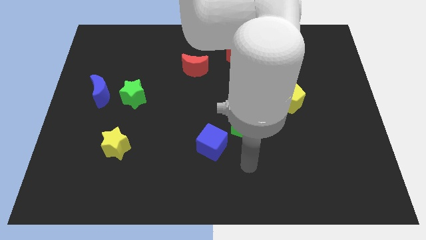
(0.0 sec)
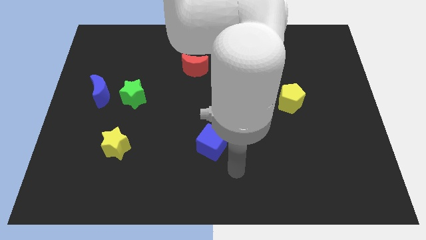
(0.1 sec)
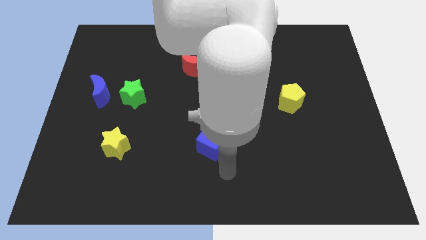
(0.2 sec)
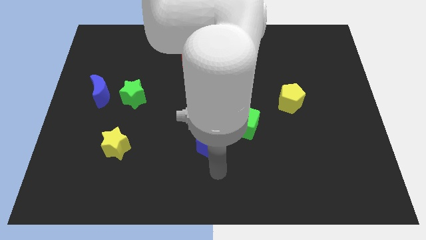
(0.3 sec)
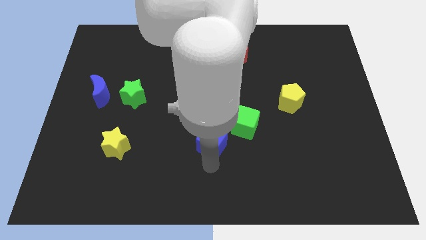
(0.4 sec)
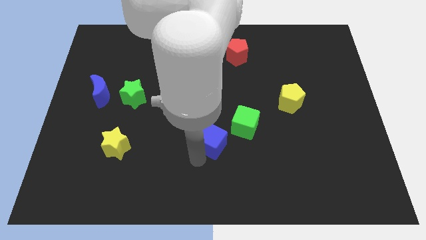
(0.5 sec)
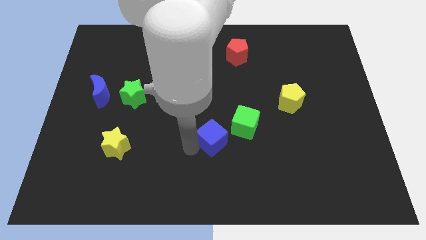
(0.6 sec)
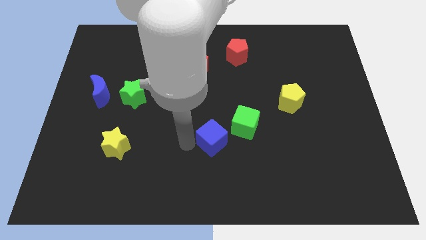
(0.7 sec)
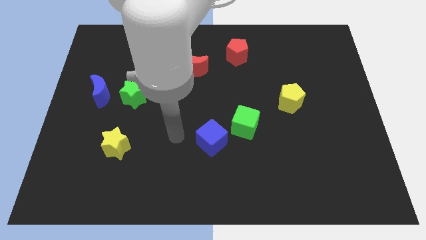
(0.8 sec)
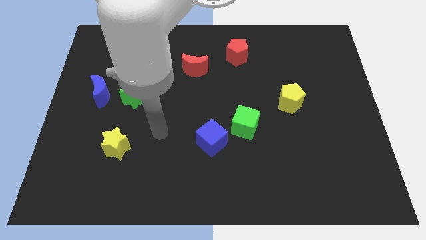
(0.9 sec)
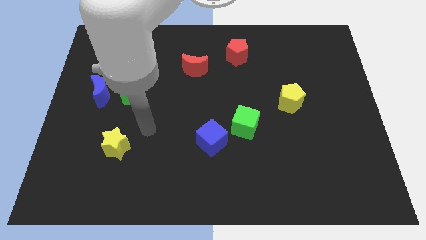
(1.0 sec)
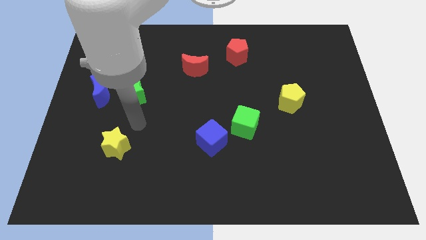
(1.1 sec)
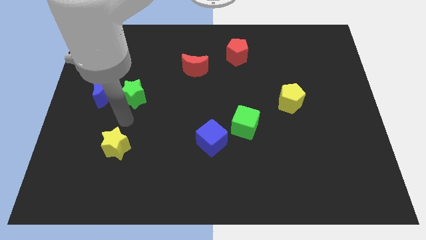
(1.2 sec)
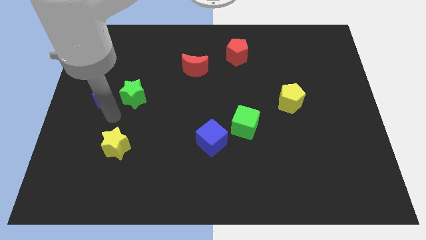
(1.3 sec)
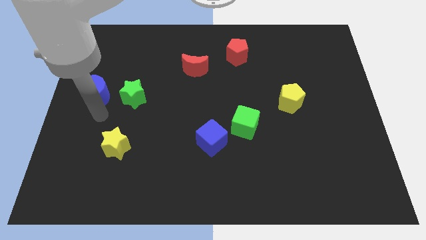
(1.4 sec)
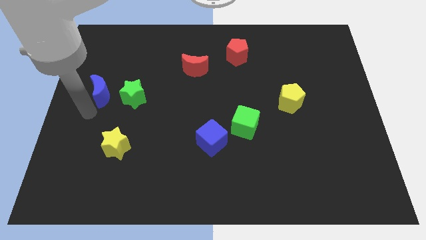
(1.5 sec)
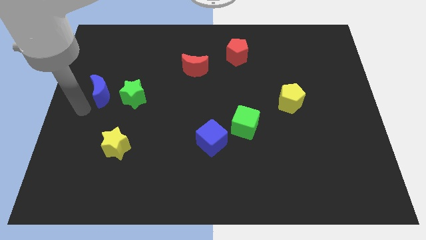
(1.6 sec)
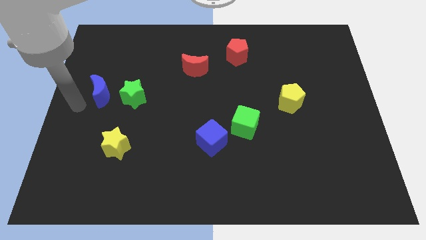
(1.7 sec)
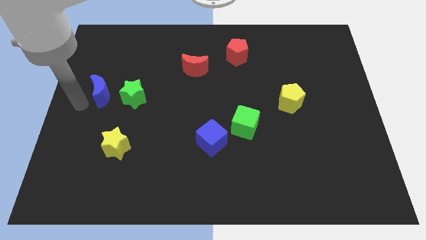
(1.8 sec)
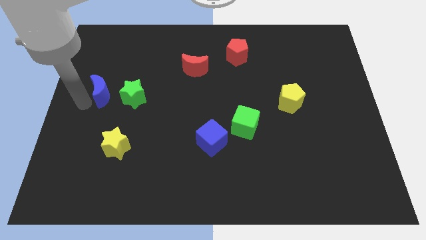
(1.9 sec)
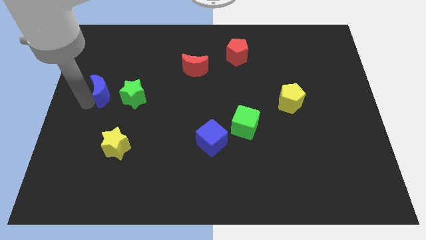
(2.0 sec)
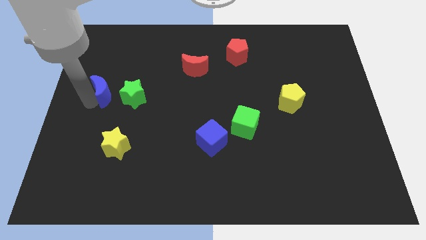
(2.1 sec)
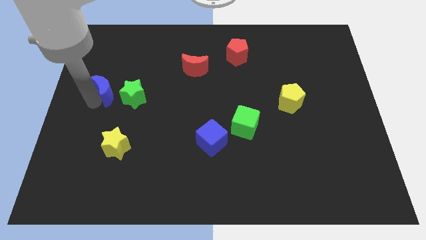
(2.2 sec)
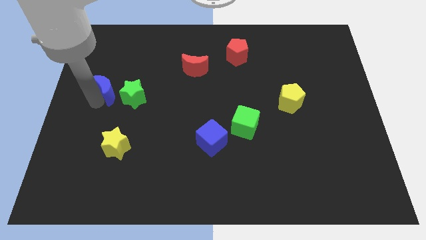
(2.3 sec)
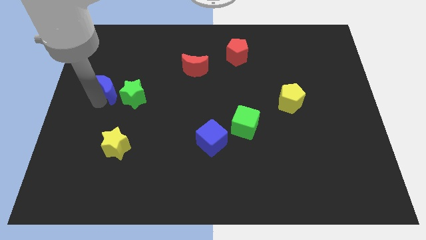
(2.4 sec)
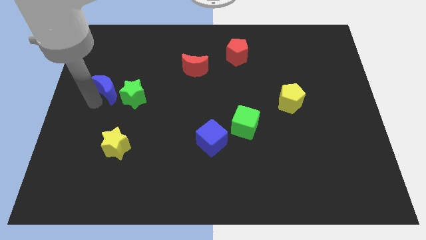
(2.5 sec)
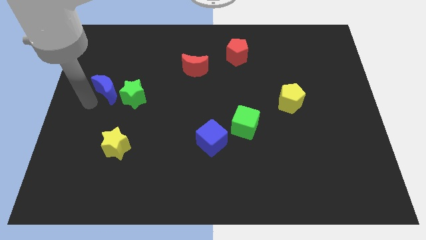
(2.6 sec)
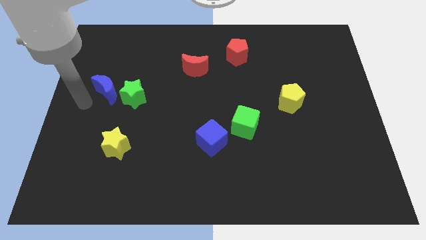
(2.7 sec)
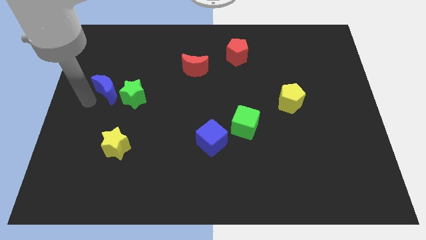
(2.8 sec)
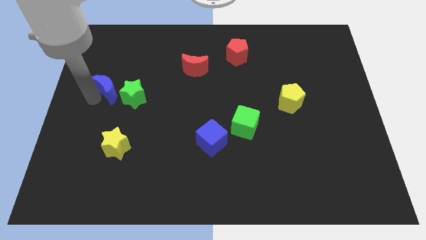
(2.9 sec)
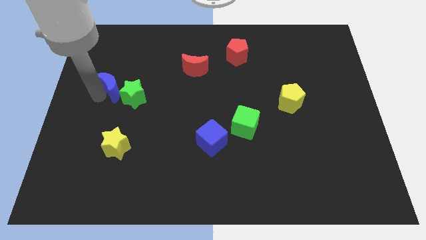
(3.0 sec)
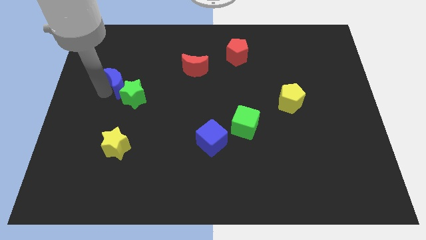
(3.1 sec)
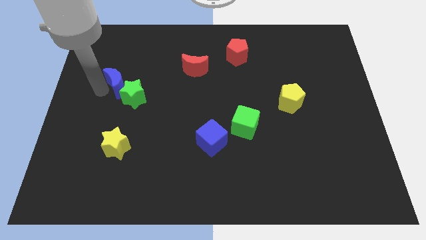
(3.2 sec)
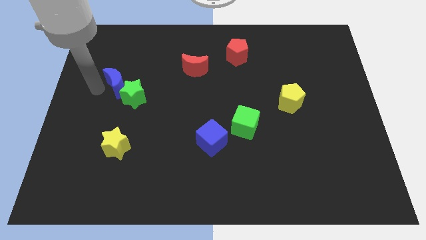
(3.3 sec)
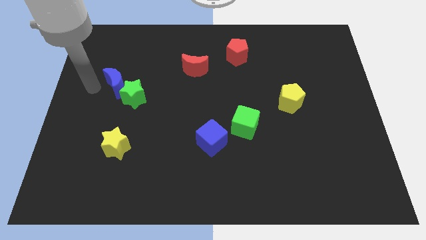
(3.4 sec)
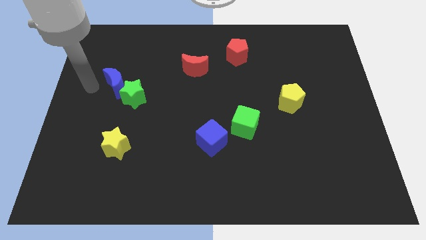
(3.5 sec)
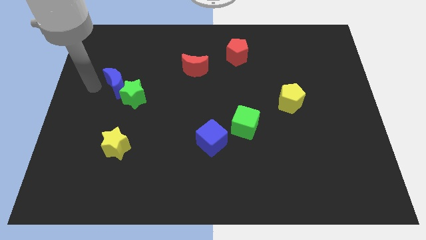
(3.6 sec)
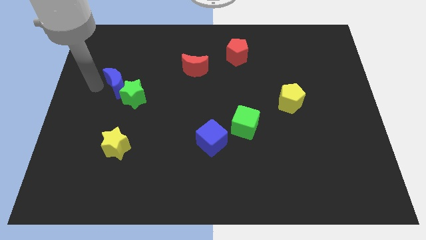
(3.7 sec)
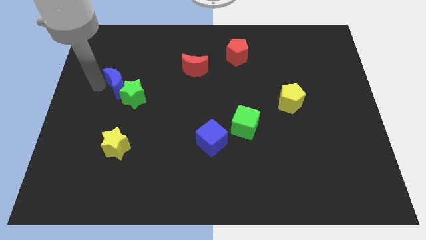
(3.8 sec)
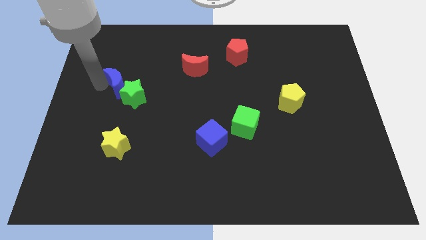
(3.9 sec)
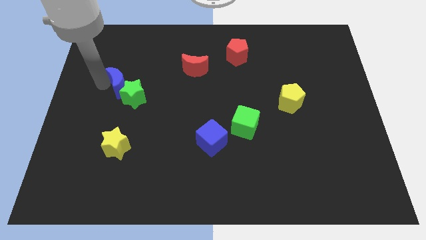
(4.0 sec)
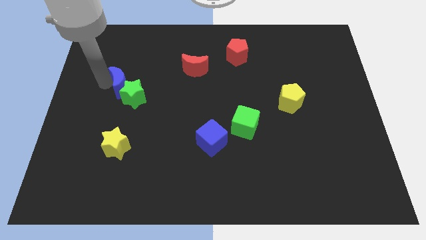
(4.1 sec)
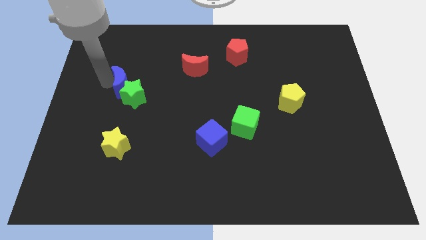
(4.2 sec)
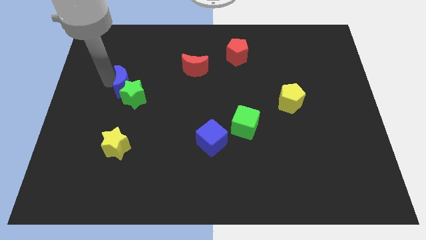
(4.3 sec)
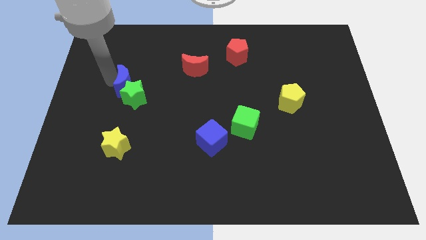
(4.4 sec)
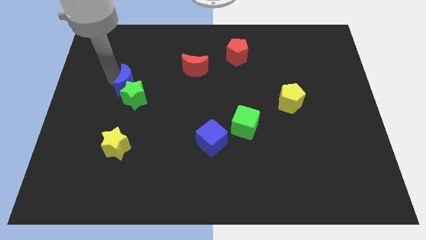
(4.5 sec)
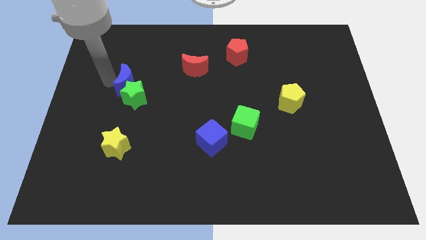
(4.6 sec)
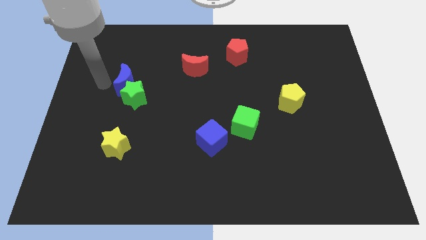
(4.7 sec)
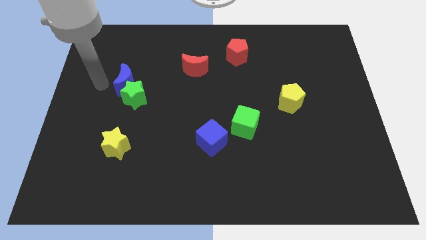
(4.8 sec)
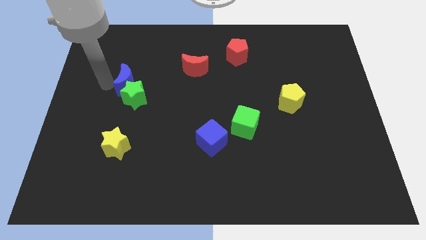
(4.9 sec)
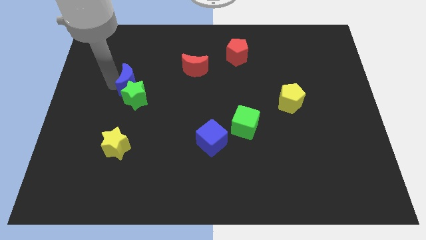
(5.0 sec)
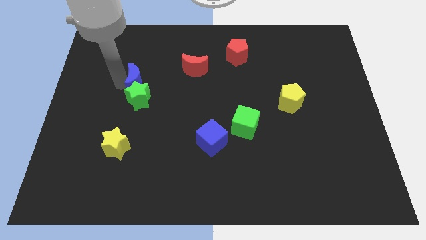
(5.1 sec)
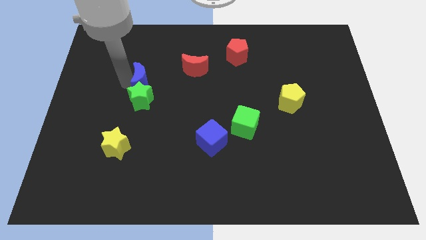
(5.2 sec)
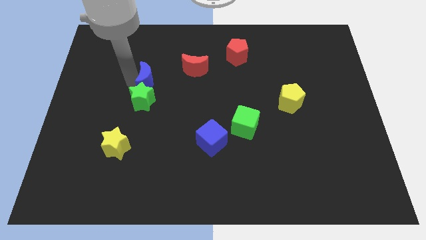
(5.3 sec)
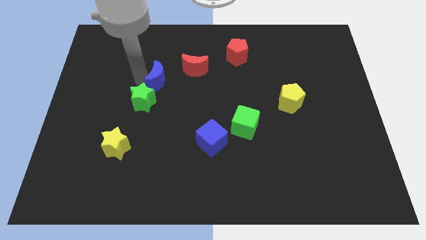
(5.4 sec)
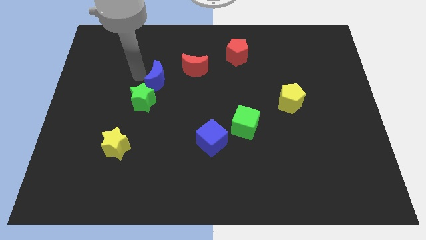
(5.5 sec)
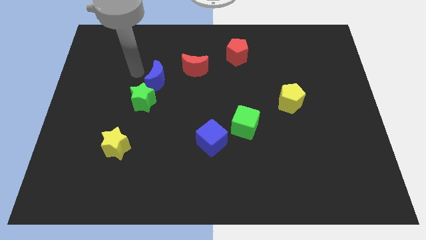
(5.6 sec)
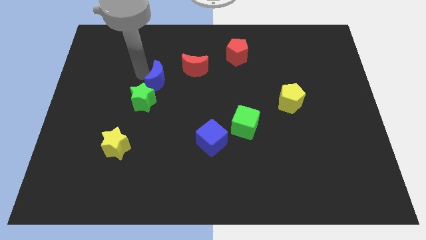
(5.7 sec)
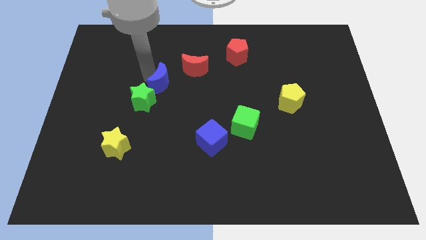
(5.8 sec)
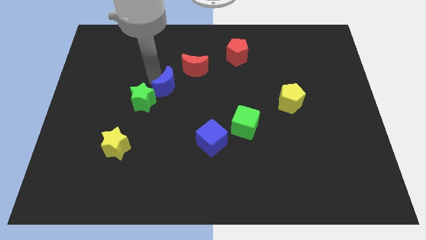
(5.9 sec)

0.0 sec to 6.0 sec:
push the blue moon to the center of the board
